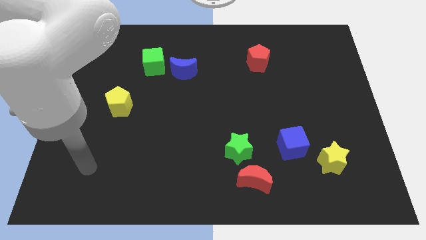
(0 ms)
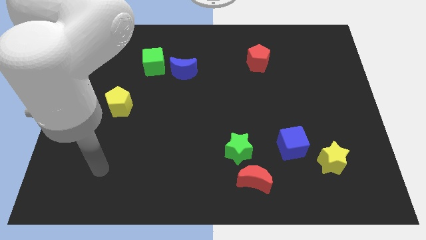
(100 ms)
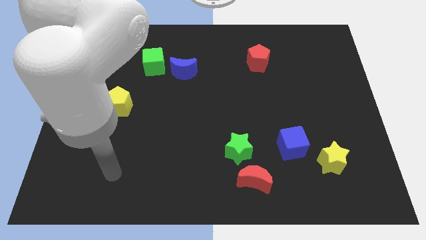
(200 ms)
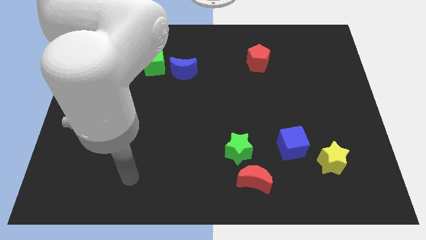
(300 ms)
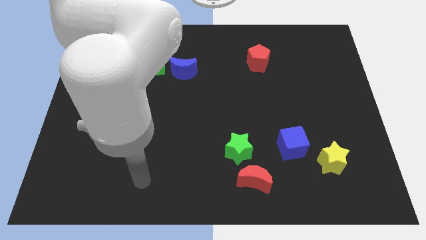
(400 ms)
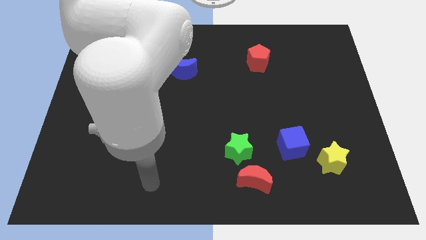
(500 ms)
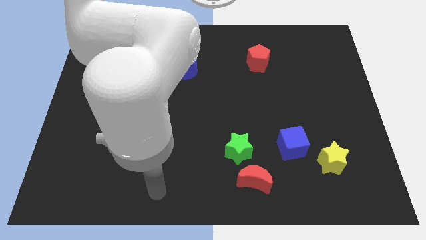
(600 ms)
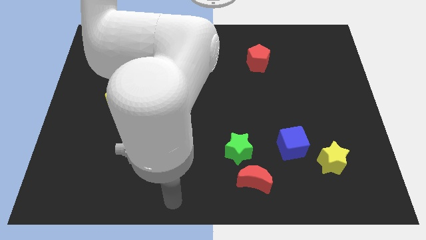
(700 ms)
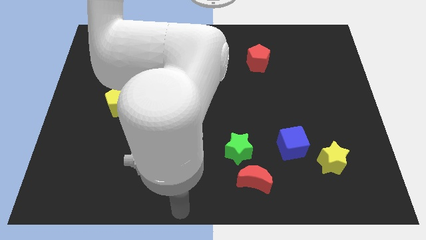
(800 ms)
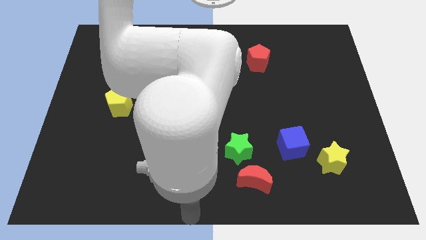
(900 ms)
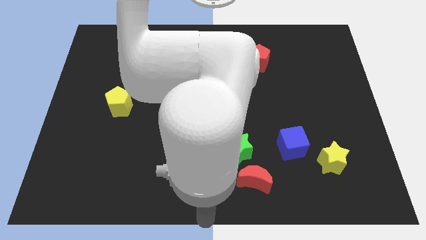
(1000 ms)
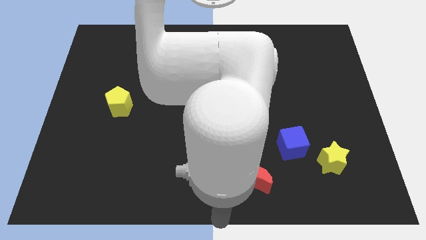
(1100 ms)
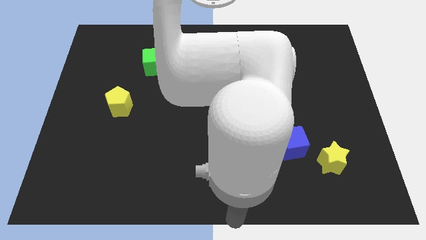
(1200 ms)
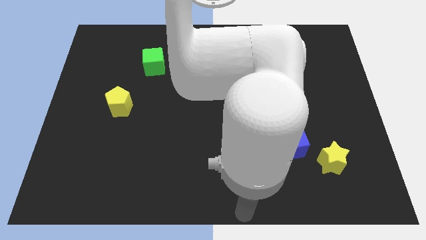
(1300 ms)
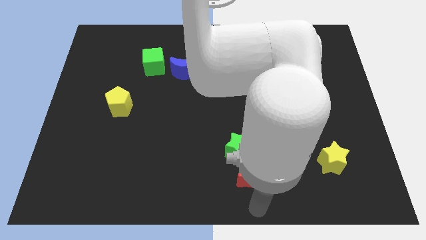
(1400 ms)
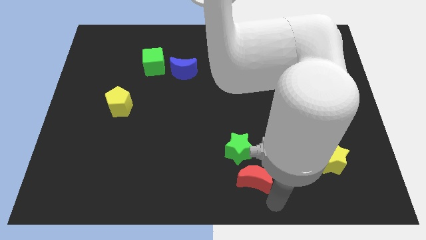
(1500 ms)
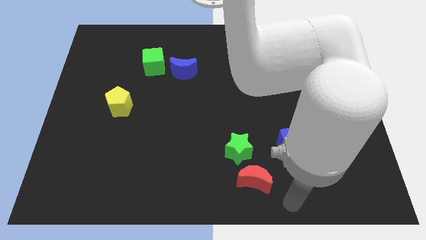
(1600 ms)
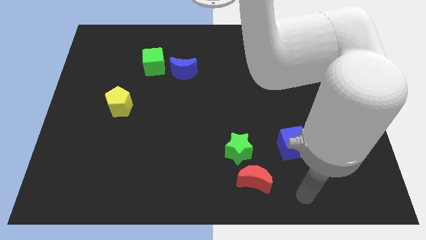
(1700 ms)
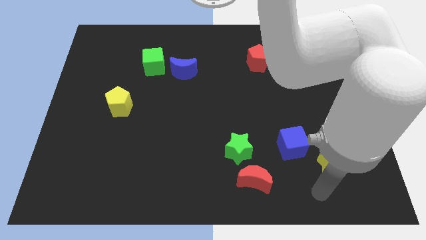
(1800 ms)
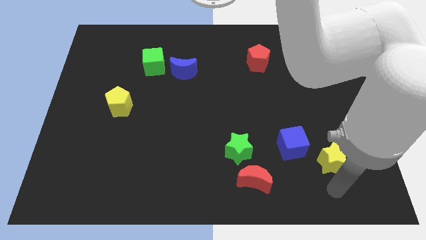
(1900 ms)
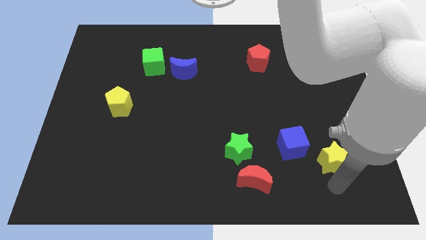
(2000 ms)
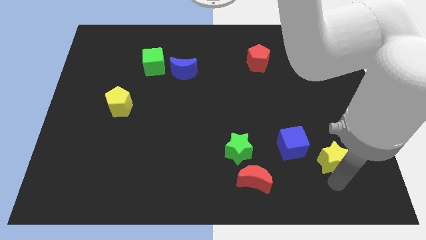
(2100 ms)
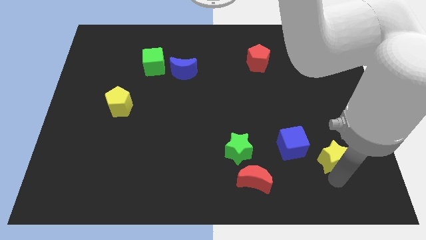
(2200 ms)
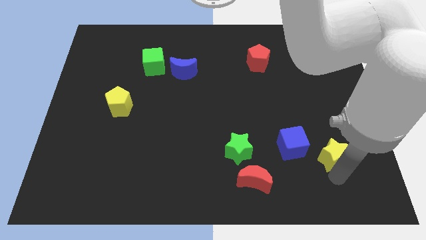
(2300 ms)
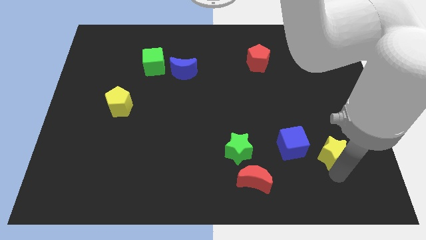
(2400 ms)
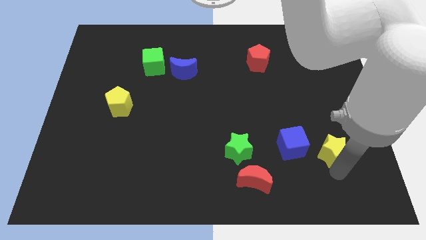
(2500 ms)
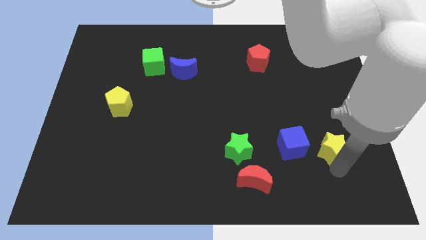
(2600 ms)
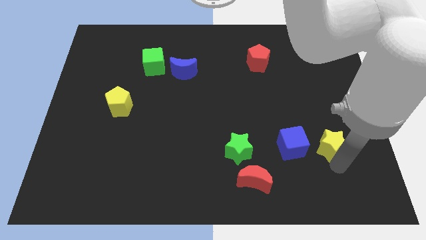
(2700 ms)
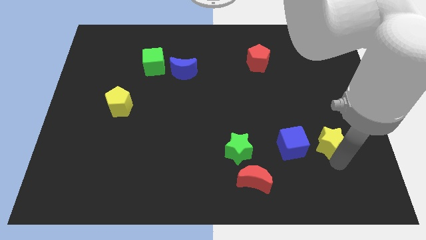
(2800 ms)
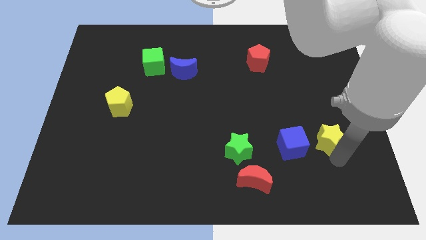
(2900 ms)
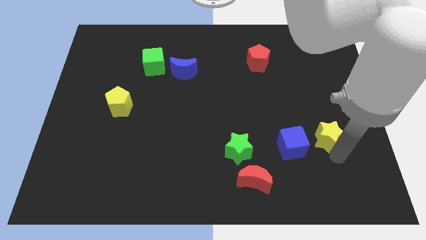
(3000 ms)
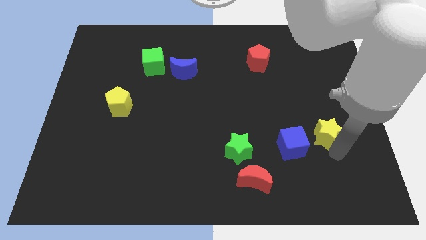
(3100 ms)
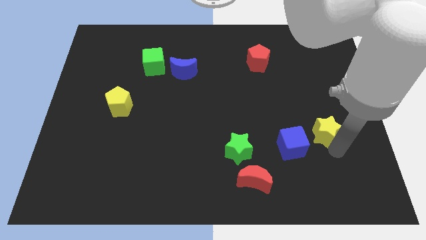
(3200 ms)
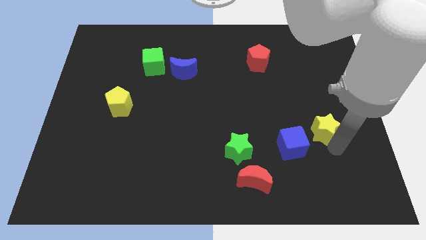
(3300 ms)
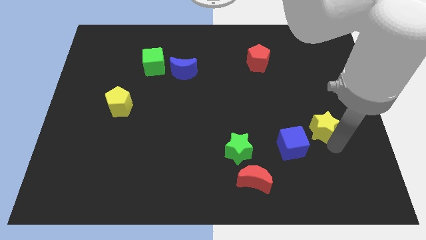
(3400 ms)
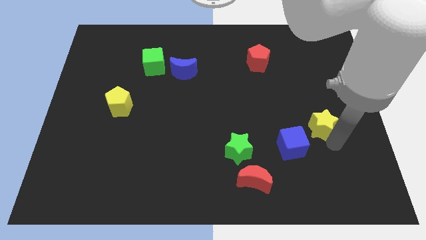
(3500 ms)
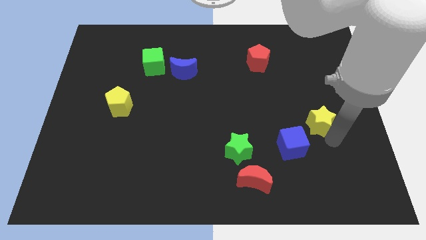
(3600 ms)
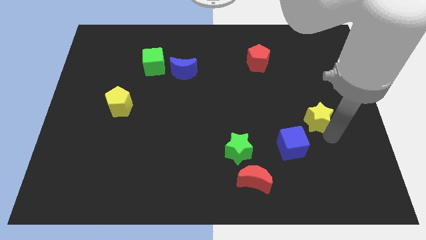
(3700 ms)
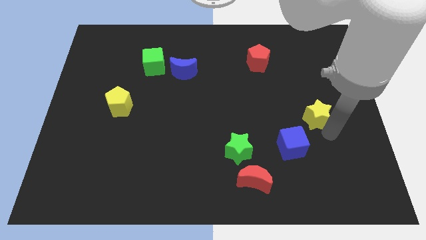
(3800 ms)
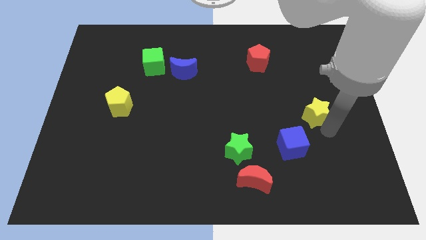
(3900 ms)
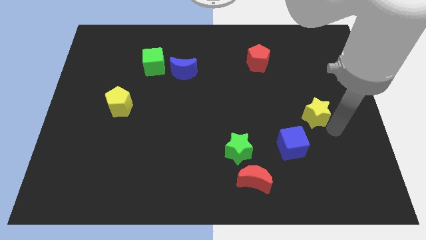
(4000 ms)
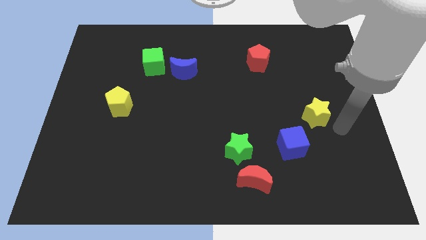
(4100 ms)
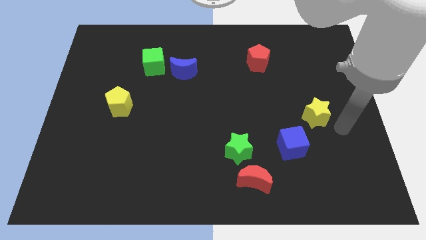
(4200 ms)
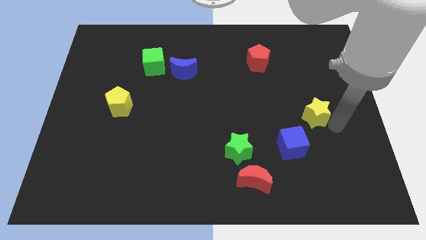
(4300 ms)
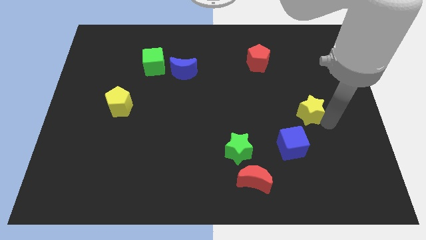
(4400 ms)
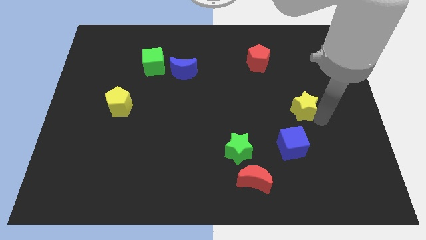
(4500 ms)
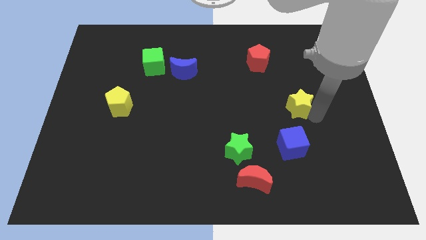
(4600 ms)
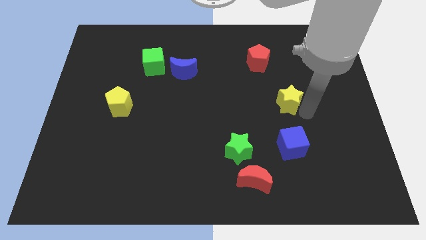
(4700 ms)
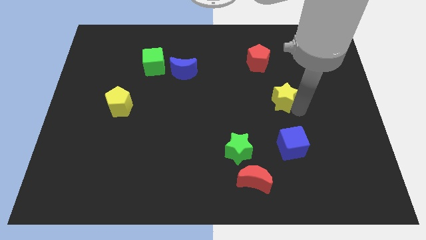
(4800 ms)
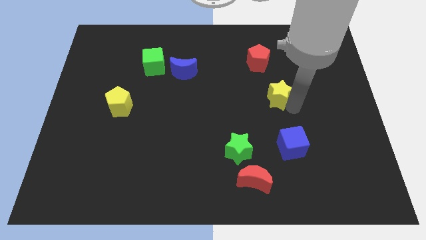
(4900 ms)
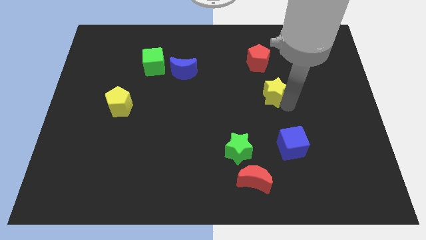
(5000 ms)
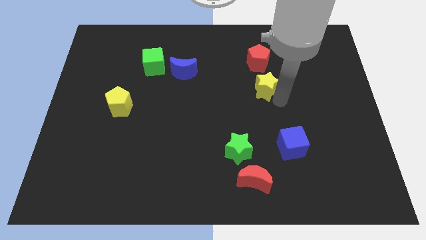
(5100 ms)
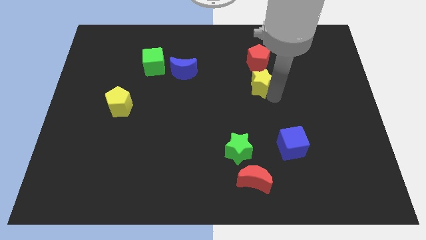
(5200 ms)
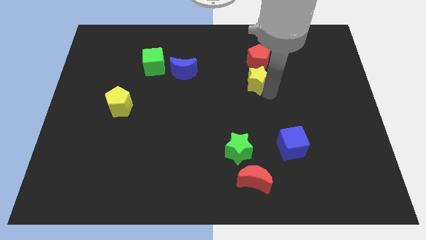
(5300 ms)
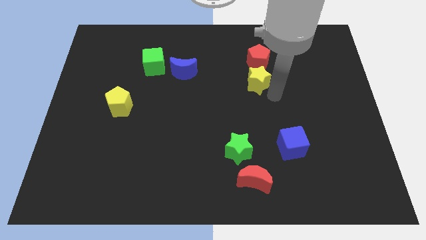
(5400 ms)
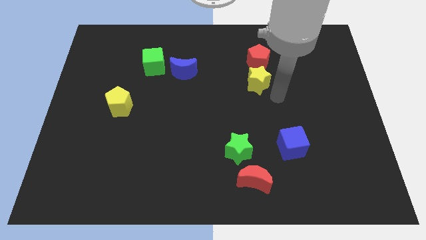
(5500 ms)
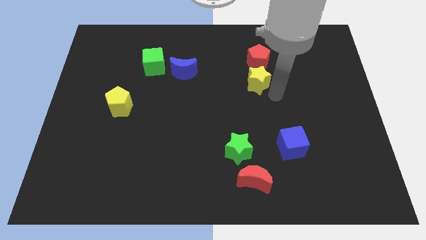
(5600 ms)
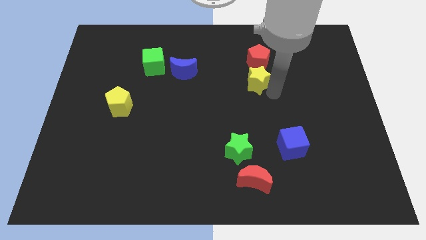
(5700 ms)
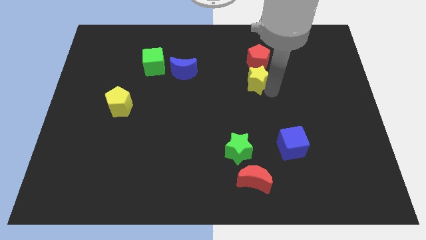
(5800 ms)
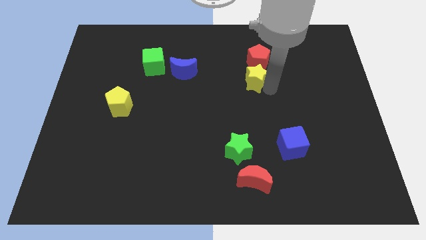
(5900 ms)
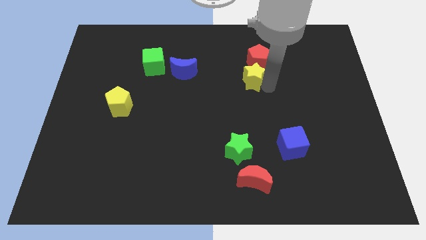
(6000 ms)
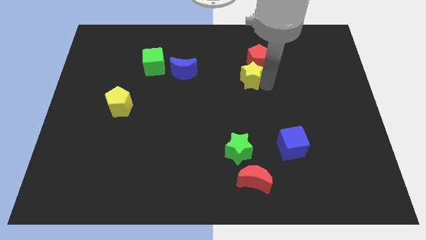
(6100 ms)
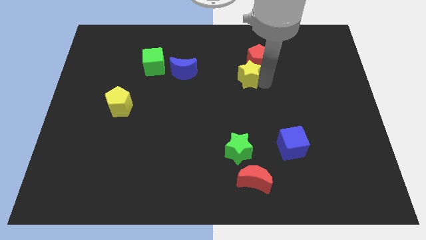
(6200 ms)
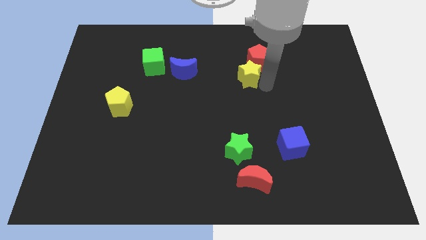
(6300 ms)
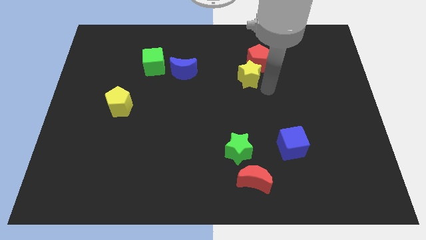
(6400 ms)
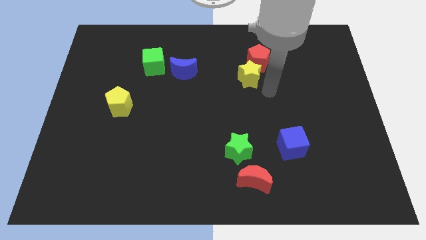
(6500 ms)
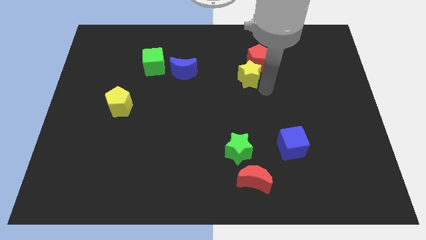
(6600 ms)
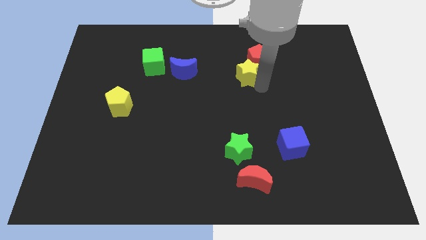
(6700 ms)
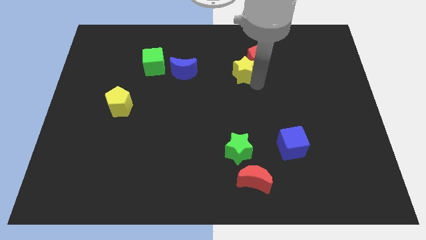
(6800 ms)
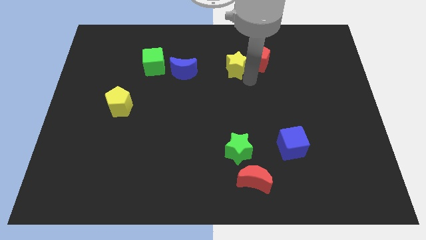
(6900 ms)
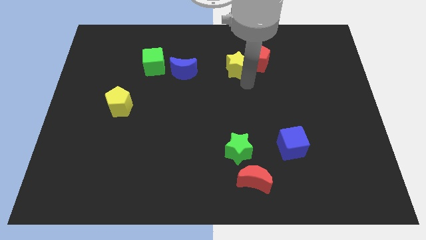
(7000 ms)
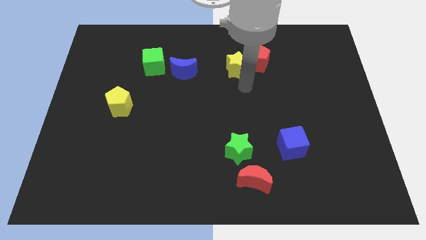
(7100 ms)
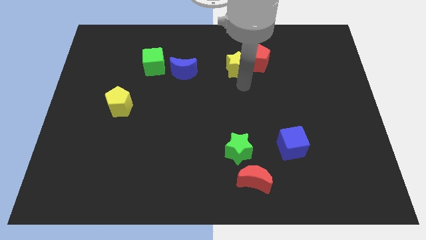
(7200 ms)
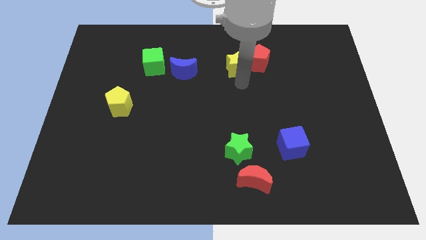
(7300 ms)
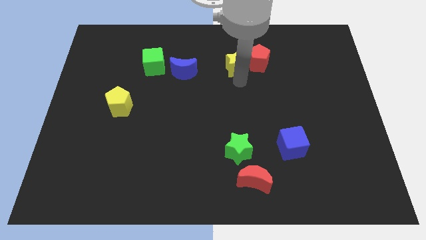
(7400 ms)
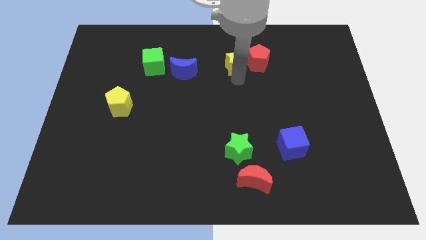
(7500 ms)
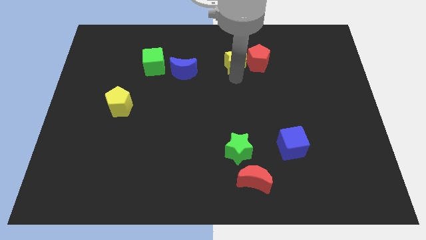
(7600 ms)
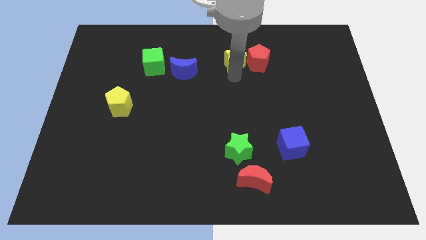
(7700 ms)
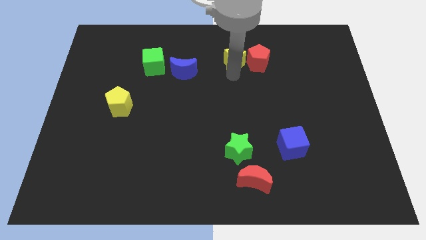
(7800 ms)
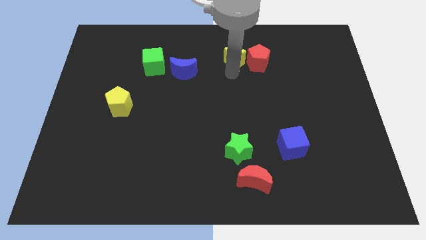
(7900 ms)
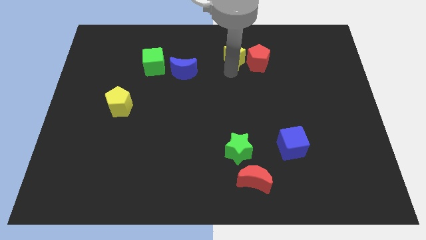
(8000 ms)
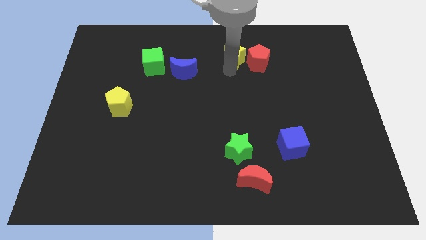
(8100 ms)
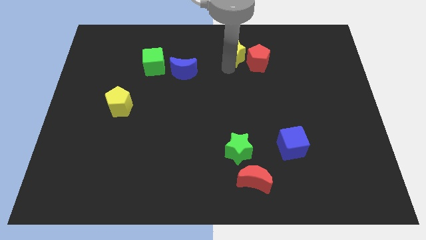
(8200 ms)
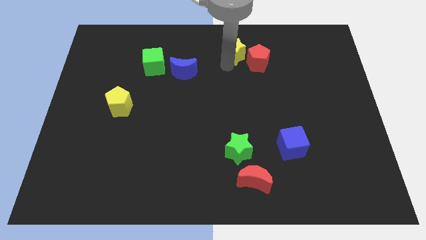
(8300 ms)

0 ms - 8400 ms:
slide the yellow star to the top side
